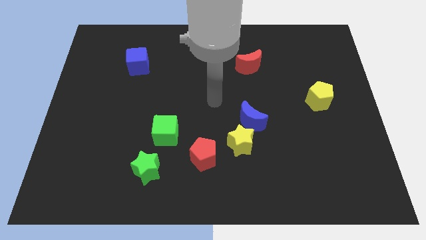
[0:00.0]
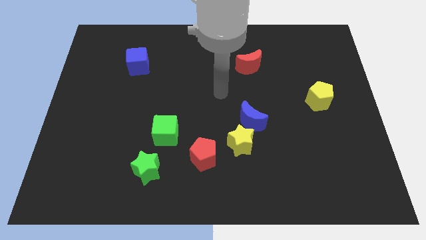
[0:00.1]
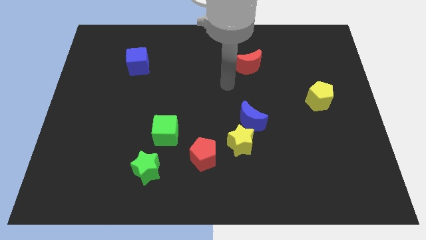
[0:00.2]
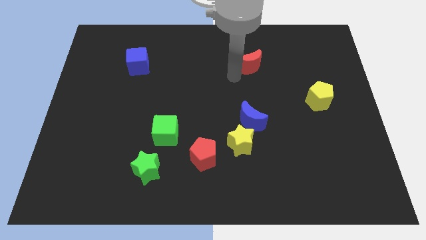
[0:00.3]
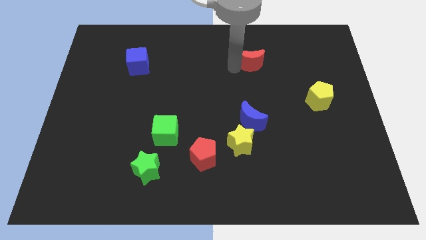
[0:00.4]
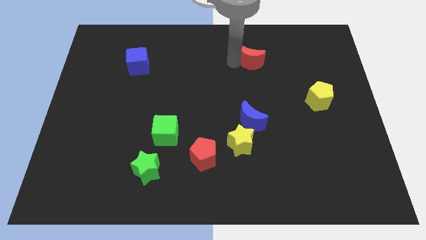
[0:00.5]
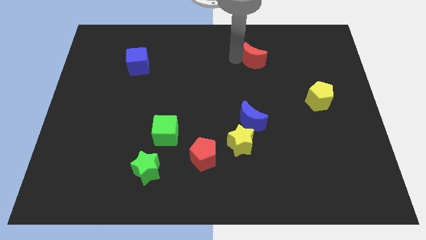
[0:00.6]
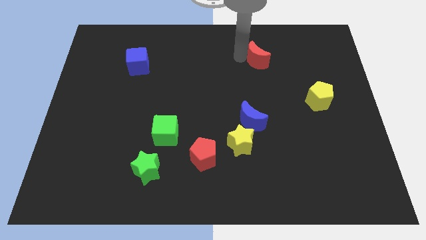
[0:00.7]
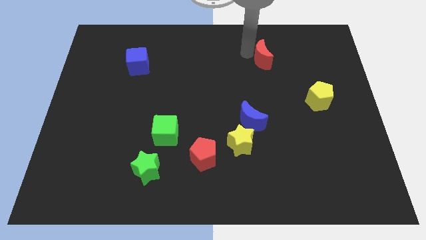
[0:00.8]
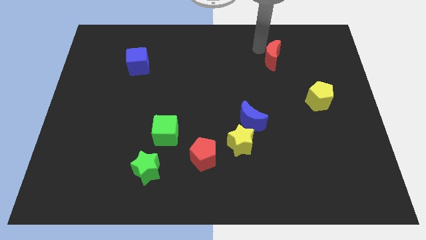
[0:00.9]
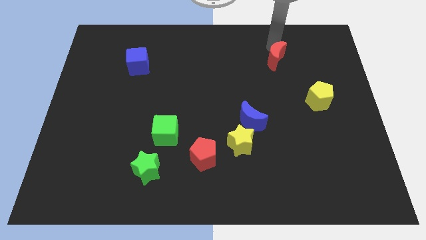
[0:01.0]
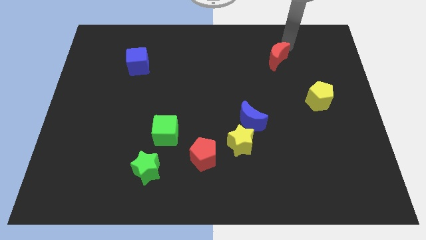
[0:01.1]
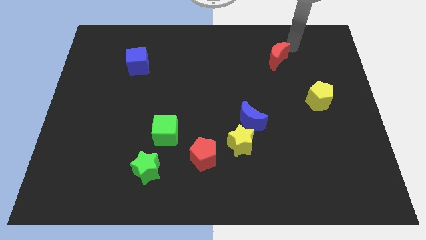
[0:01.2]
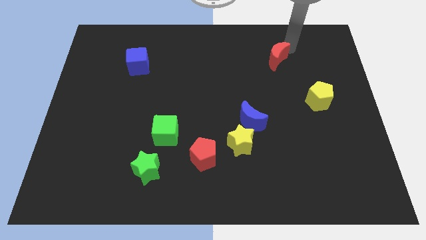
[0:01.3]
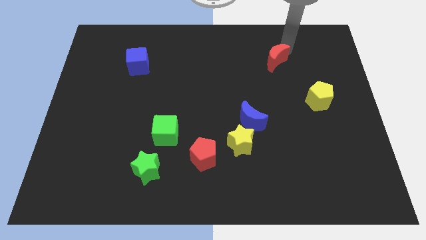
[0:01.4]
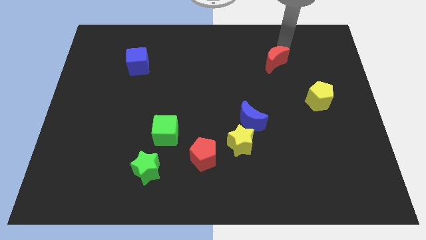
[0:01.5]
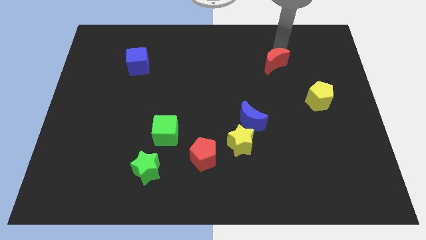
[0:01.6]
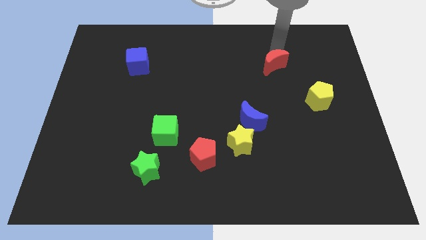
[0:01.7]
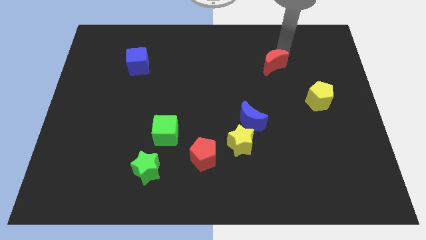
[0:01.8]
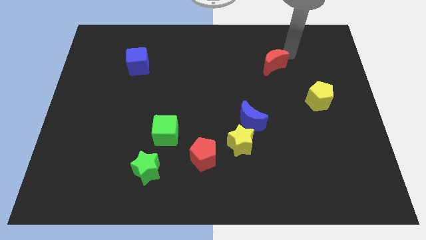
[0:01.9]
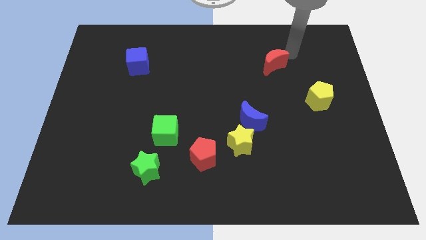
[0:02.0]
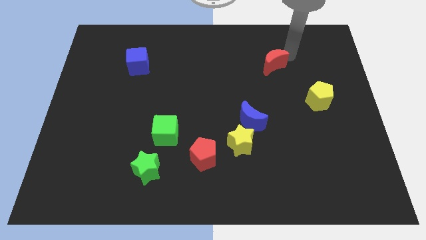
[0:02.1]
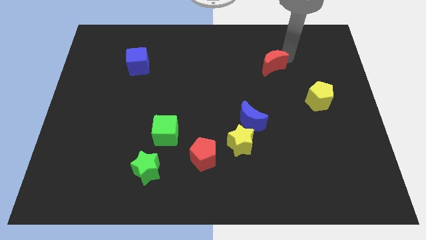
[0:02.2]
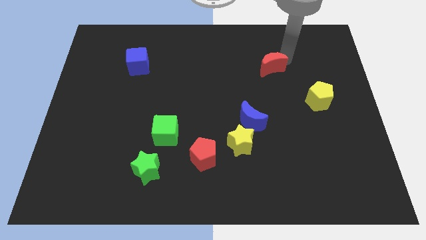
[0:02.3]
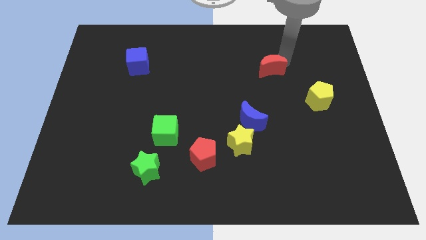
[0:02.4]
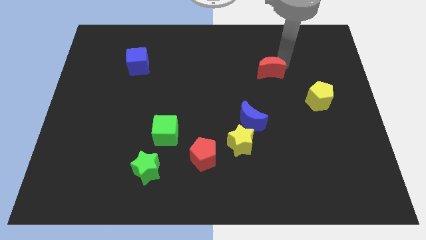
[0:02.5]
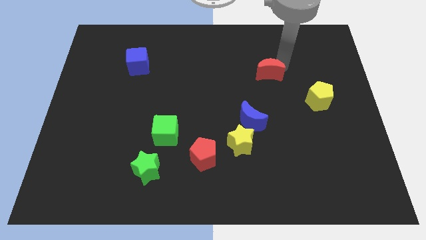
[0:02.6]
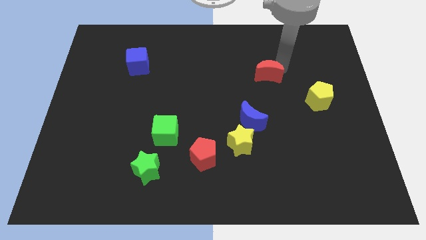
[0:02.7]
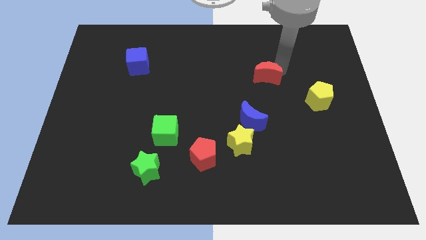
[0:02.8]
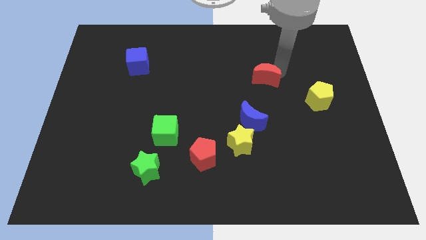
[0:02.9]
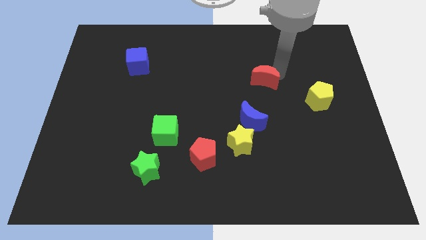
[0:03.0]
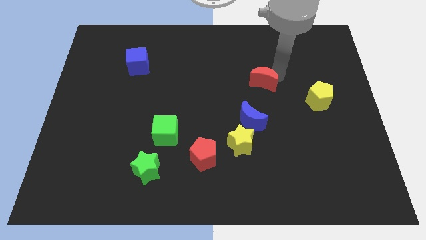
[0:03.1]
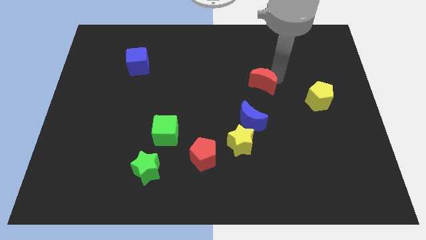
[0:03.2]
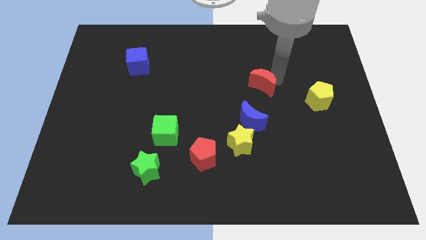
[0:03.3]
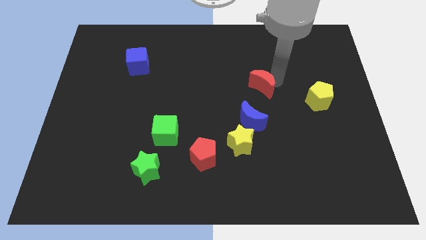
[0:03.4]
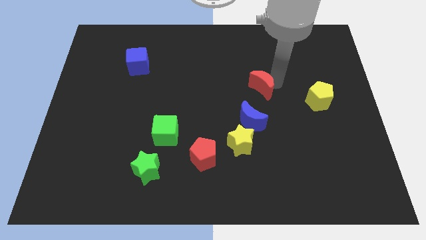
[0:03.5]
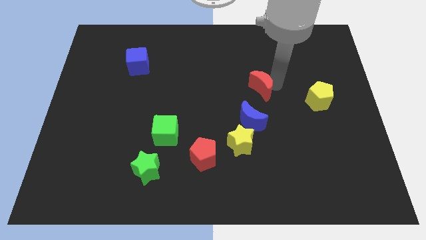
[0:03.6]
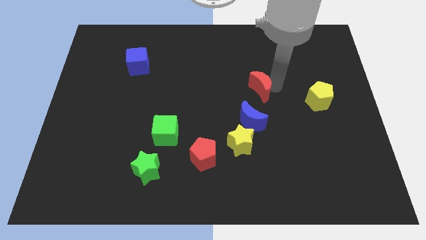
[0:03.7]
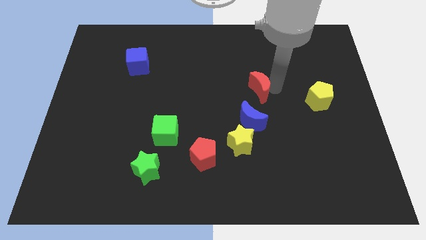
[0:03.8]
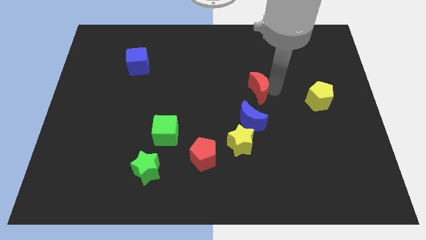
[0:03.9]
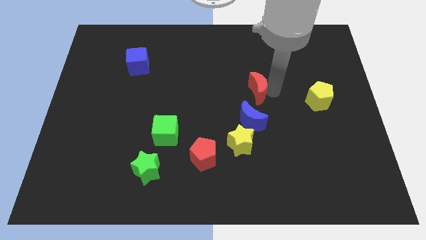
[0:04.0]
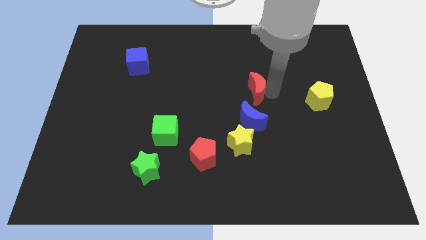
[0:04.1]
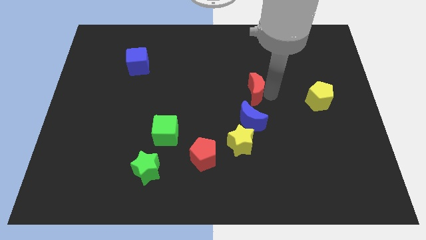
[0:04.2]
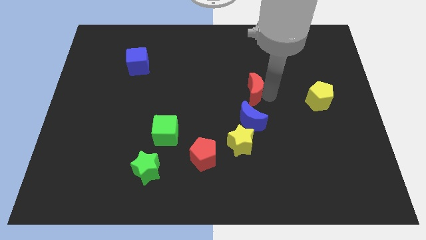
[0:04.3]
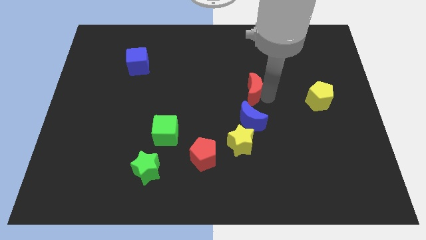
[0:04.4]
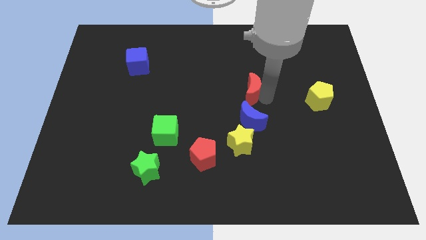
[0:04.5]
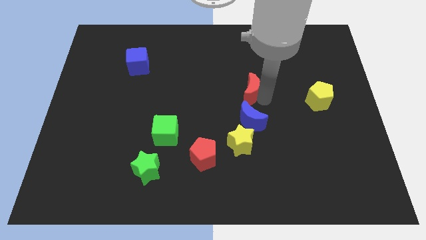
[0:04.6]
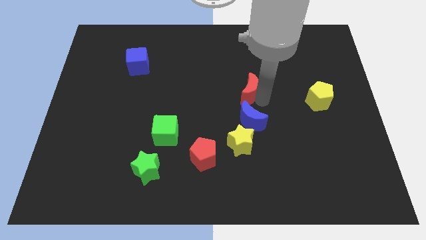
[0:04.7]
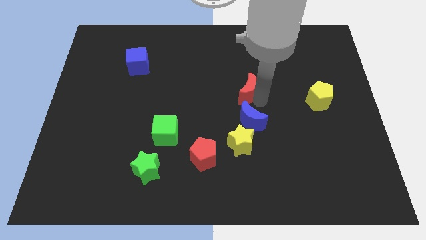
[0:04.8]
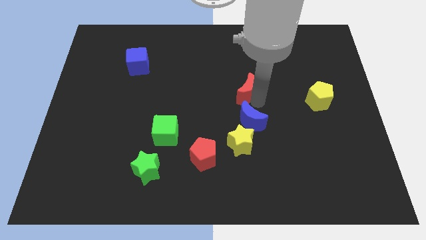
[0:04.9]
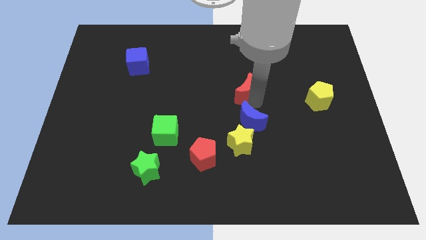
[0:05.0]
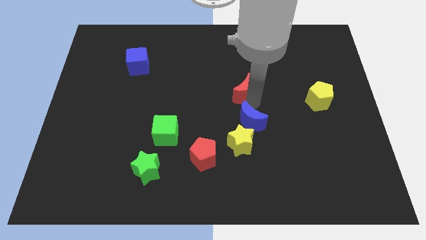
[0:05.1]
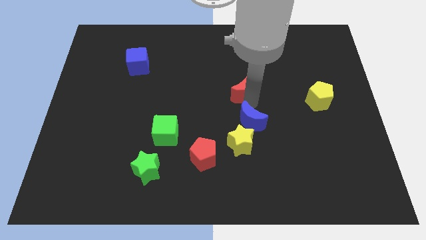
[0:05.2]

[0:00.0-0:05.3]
slightly push the red moon downwards and then left

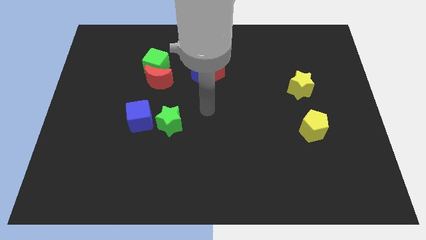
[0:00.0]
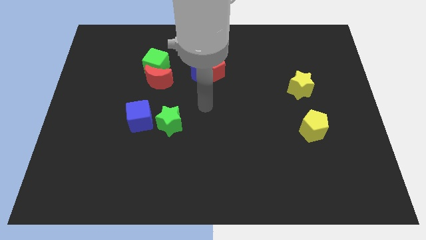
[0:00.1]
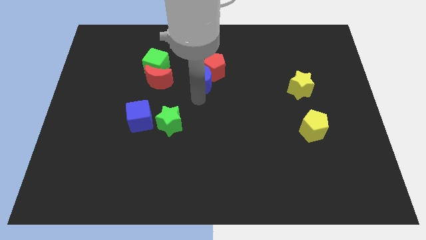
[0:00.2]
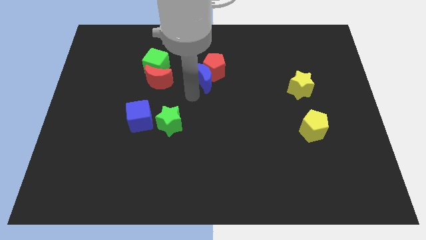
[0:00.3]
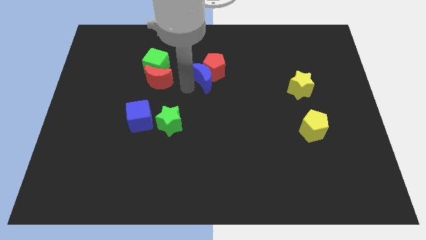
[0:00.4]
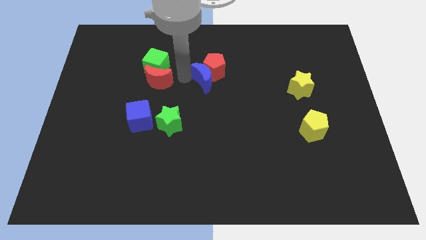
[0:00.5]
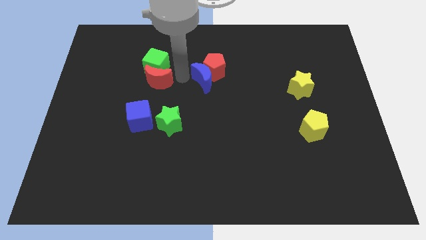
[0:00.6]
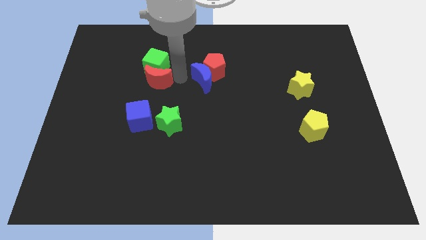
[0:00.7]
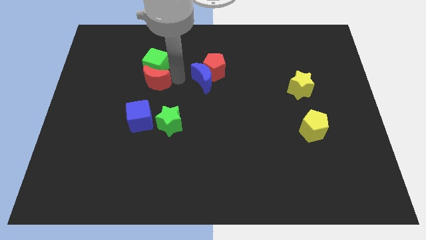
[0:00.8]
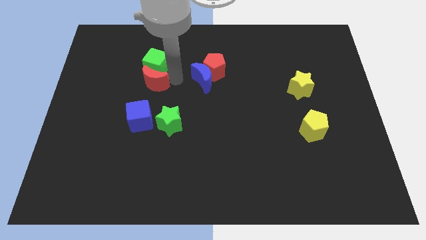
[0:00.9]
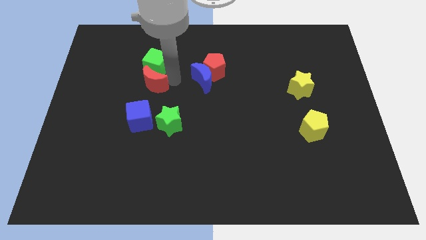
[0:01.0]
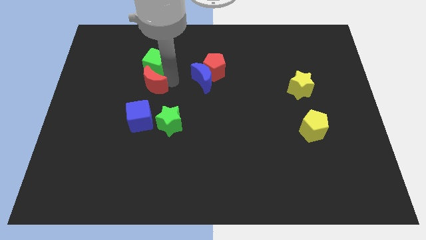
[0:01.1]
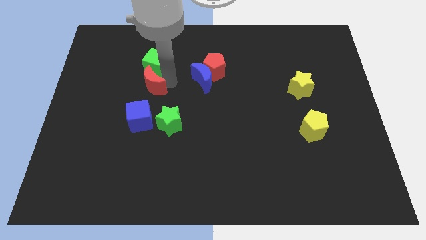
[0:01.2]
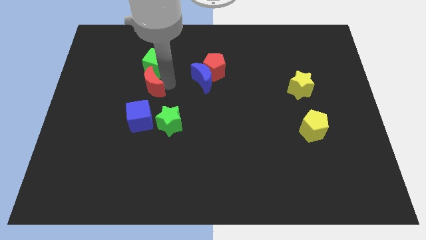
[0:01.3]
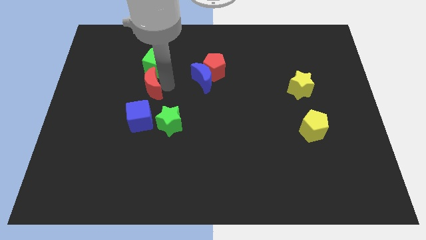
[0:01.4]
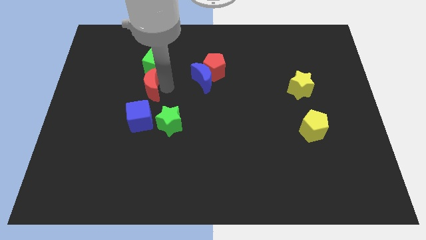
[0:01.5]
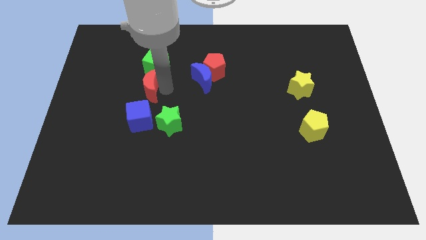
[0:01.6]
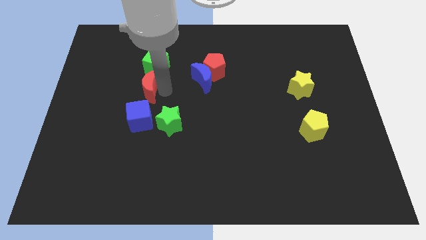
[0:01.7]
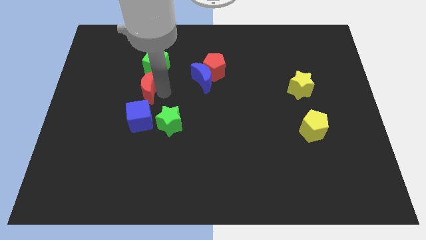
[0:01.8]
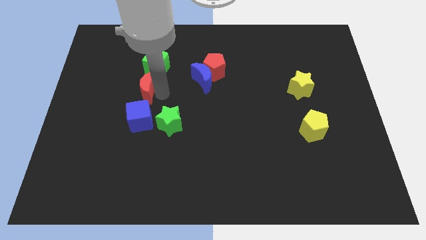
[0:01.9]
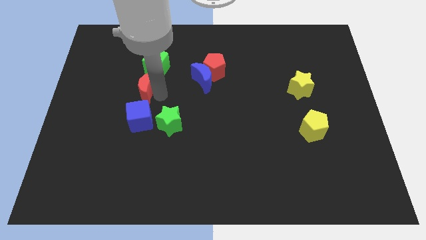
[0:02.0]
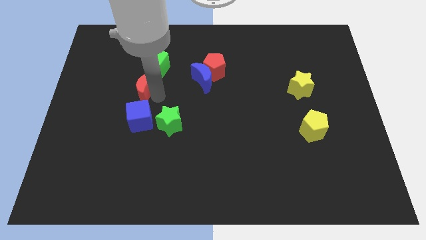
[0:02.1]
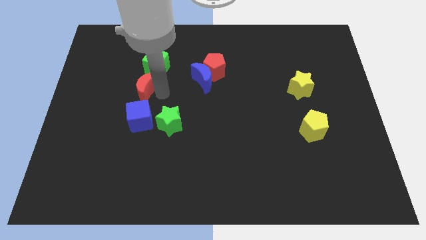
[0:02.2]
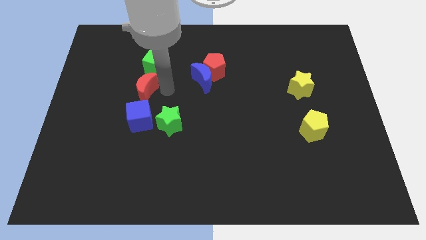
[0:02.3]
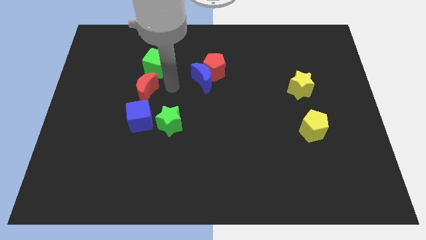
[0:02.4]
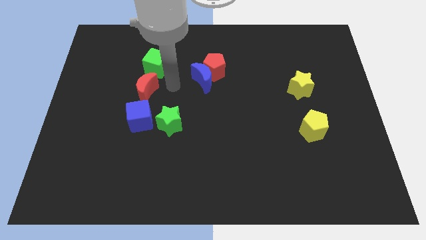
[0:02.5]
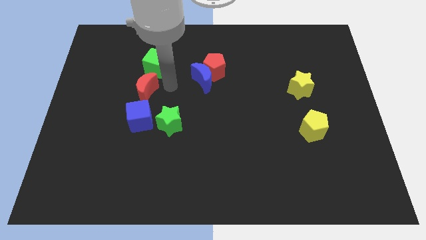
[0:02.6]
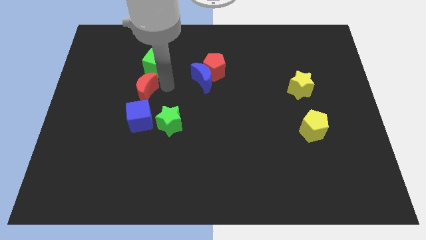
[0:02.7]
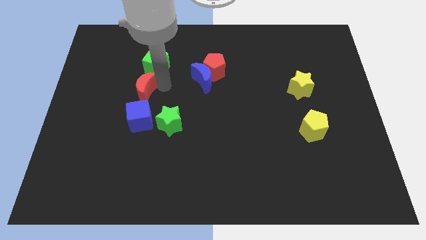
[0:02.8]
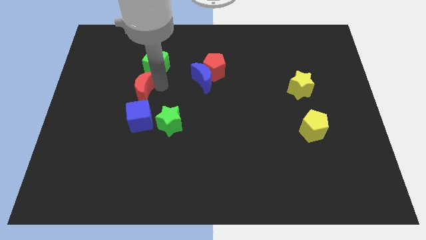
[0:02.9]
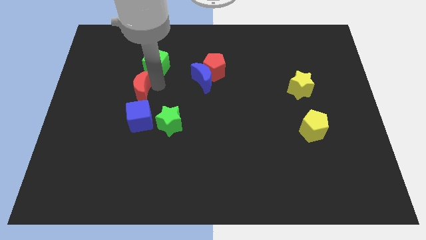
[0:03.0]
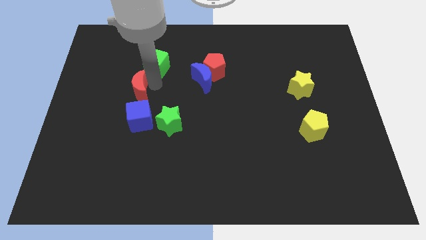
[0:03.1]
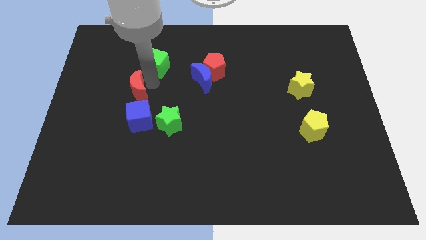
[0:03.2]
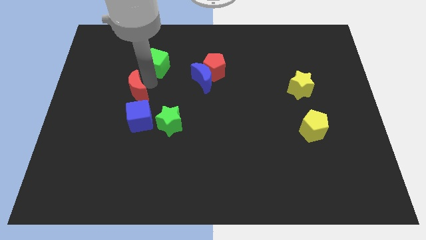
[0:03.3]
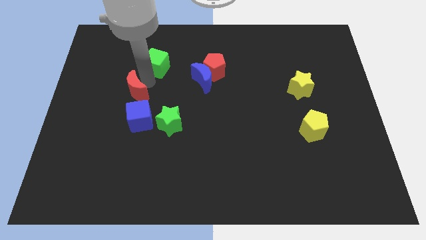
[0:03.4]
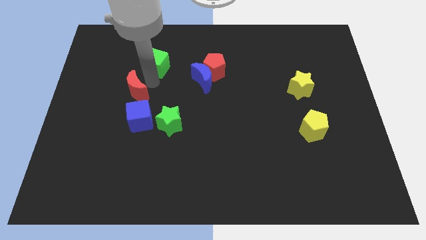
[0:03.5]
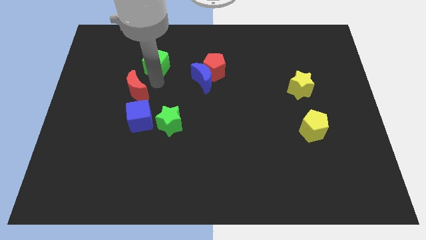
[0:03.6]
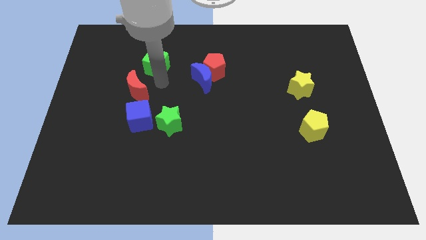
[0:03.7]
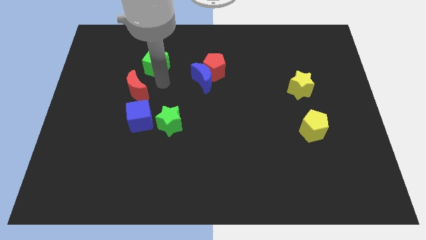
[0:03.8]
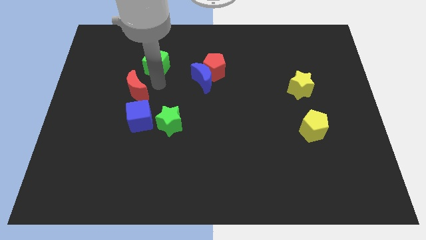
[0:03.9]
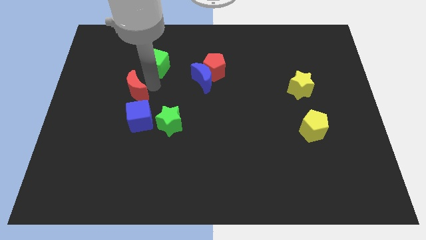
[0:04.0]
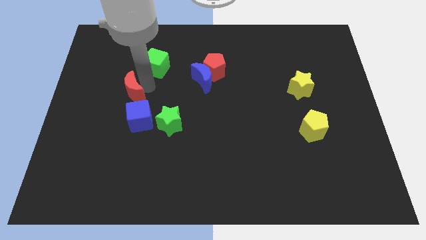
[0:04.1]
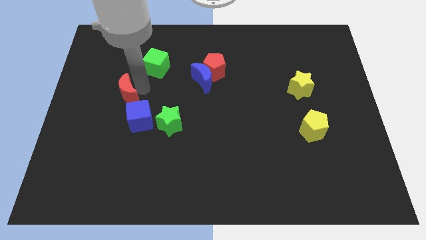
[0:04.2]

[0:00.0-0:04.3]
push the red moon somewhat down and then left
